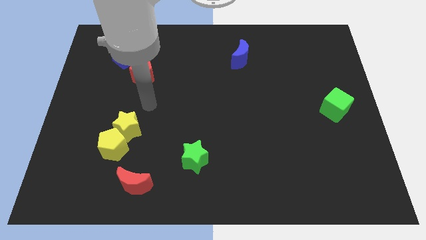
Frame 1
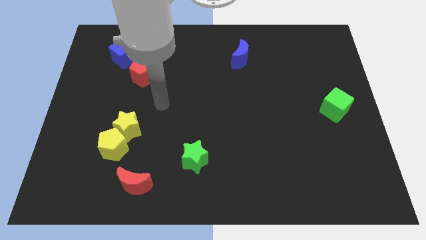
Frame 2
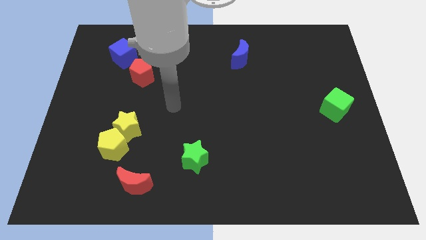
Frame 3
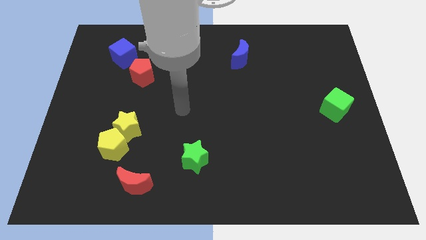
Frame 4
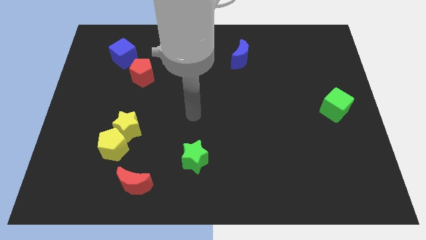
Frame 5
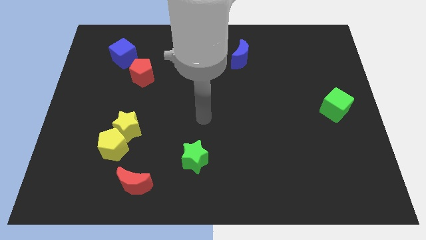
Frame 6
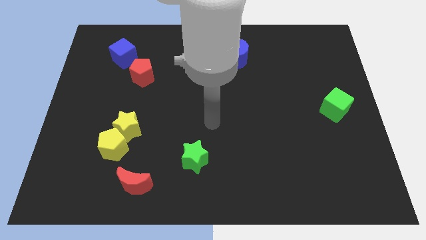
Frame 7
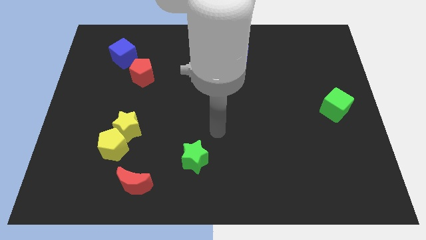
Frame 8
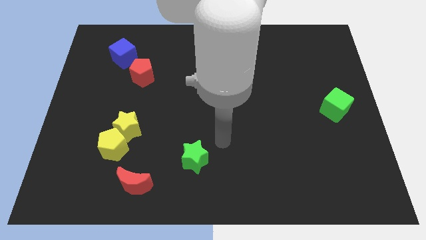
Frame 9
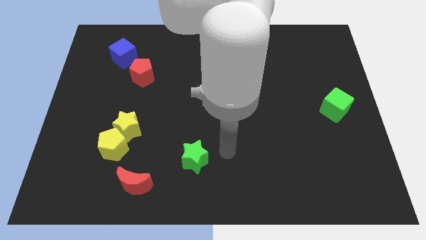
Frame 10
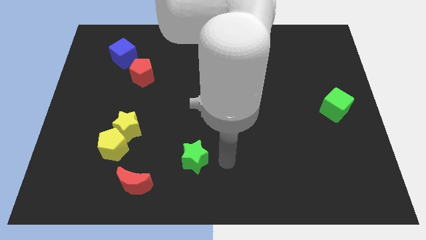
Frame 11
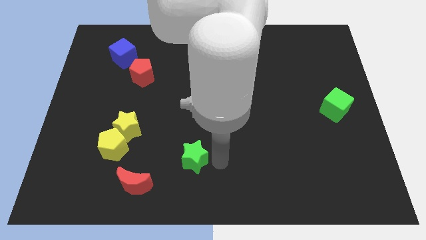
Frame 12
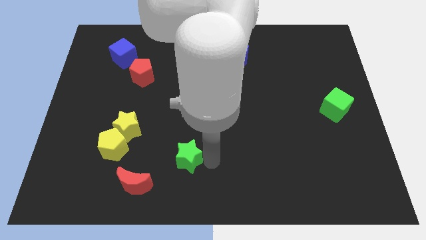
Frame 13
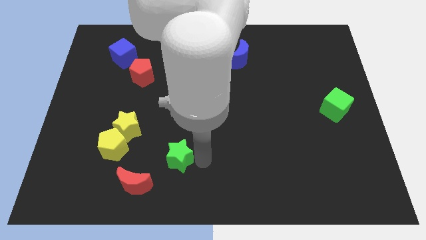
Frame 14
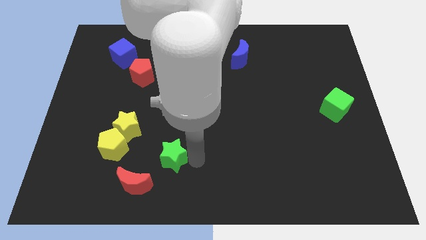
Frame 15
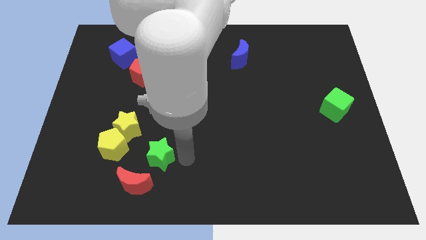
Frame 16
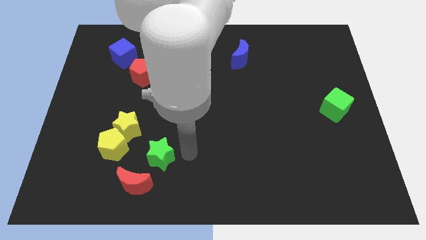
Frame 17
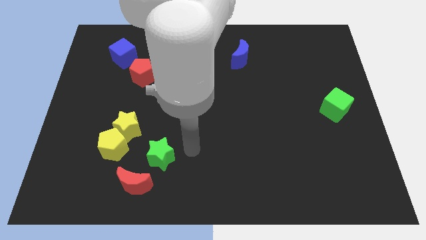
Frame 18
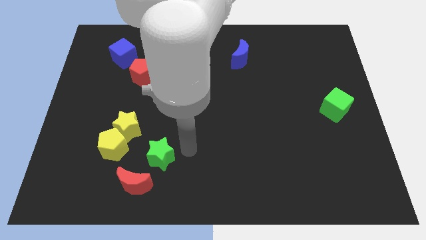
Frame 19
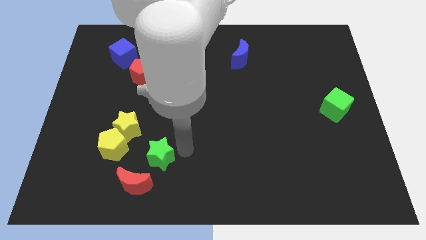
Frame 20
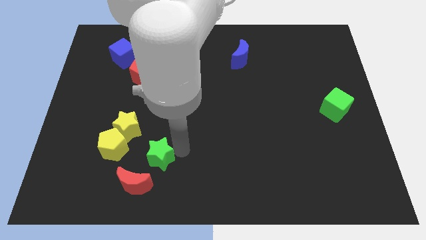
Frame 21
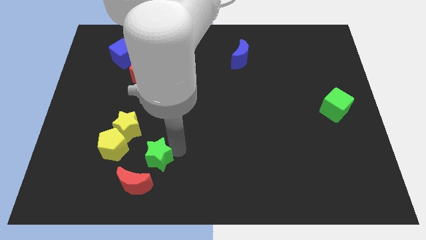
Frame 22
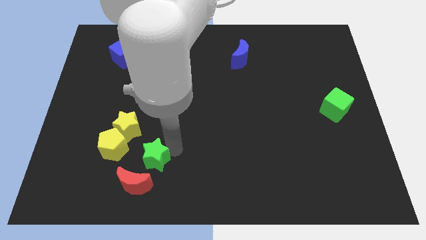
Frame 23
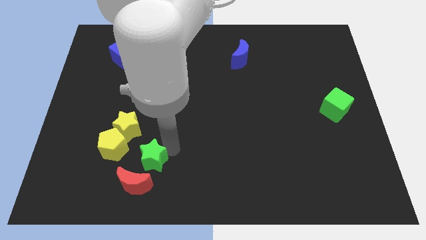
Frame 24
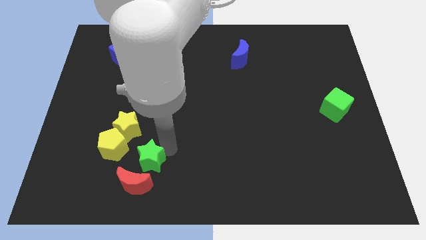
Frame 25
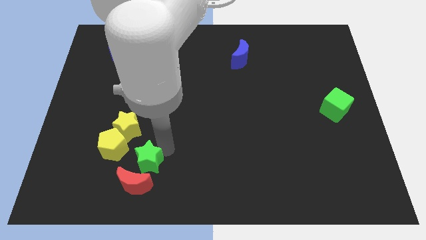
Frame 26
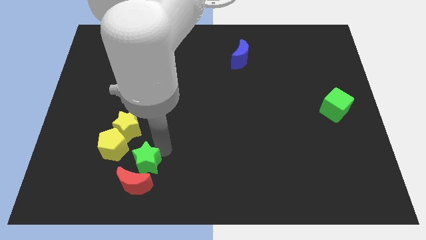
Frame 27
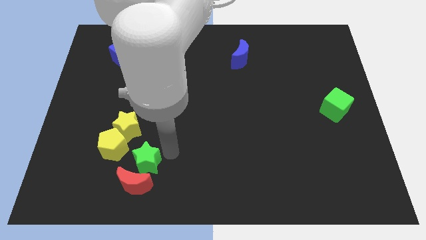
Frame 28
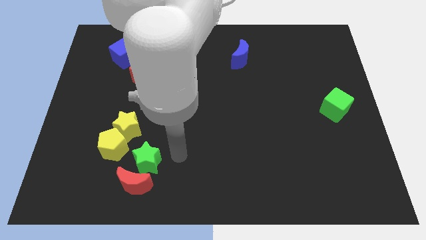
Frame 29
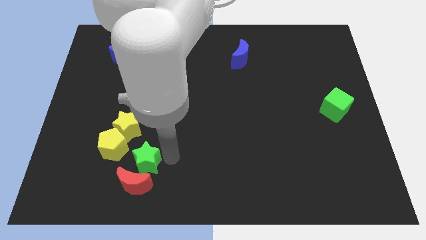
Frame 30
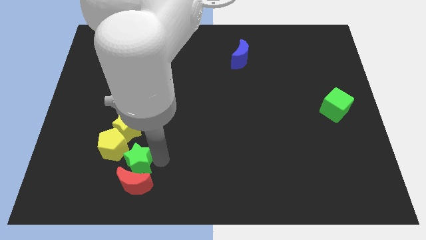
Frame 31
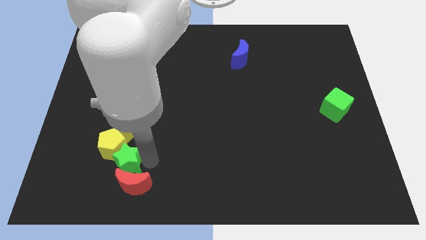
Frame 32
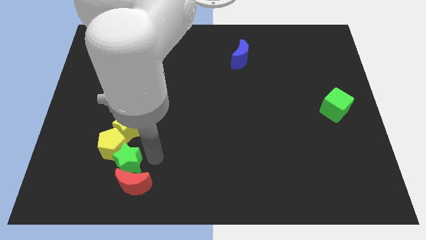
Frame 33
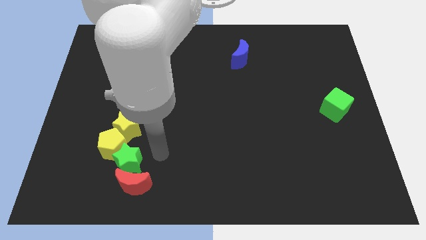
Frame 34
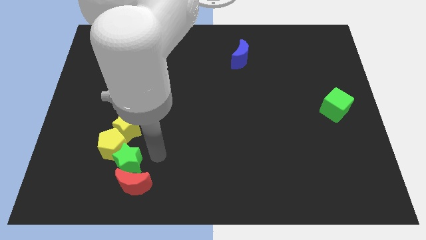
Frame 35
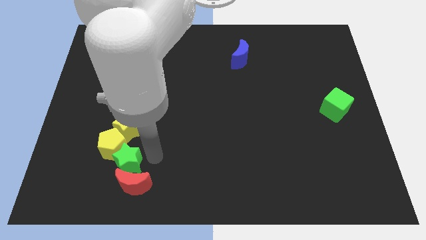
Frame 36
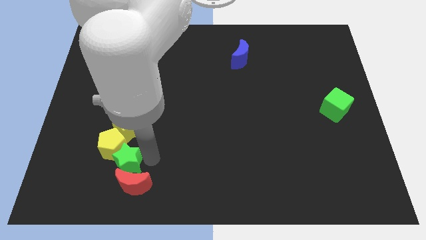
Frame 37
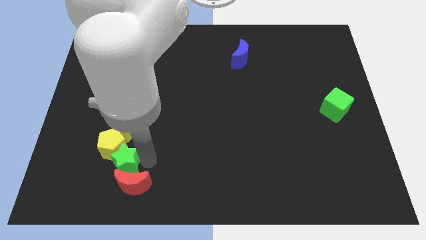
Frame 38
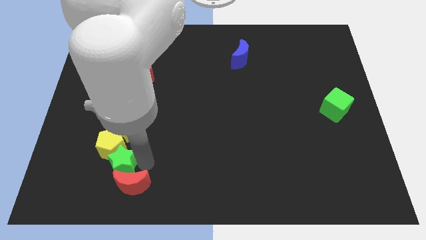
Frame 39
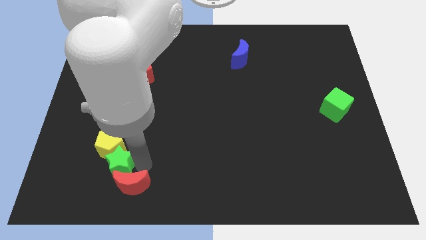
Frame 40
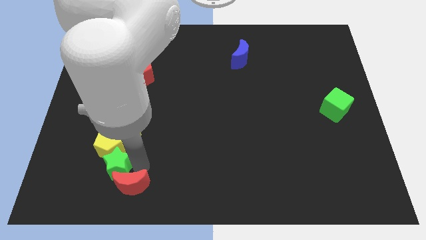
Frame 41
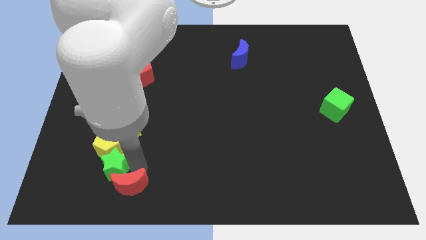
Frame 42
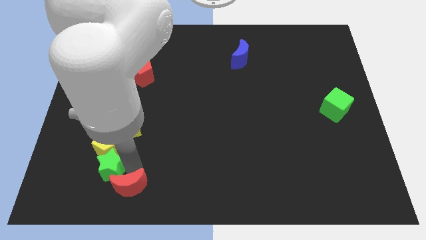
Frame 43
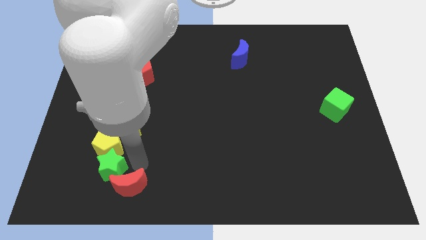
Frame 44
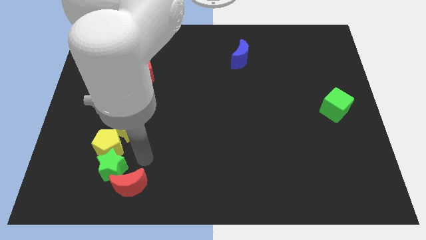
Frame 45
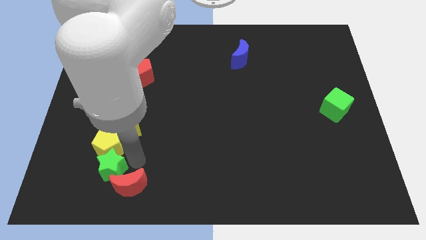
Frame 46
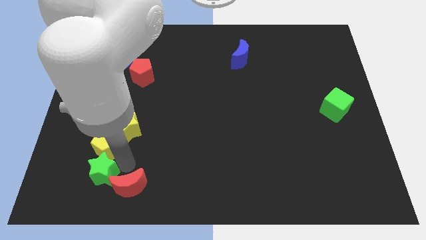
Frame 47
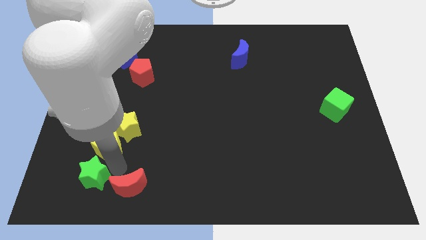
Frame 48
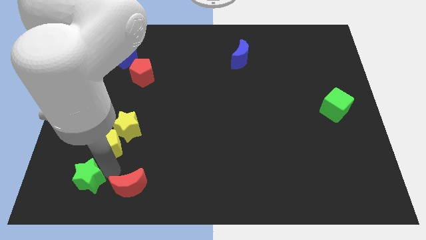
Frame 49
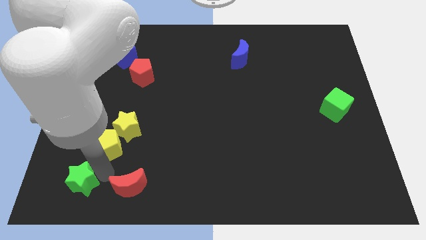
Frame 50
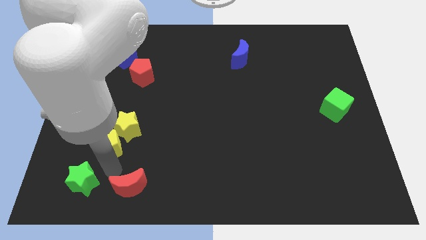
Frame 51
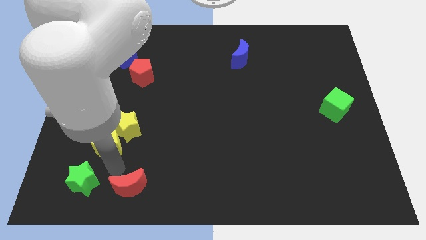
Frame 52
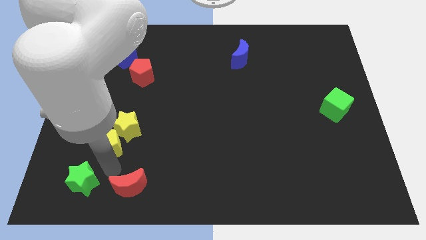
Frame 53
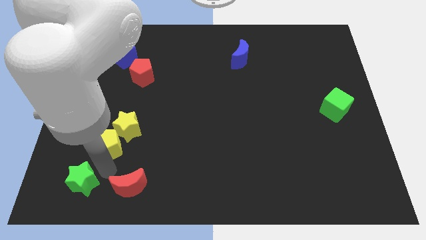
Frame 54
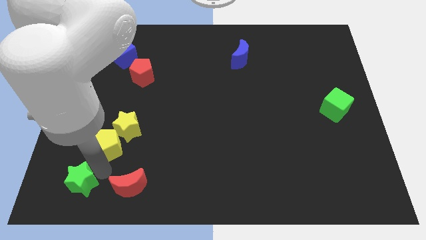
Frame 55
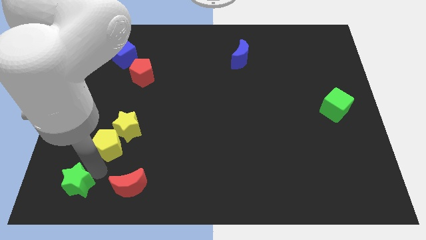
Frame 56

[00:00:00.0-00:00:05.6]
put the green star to the bottom left of the board
